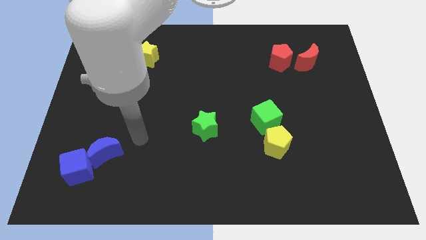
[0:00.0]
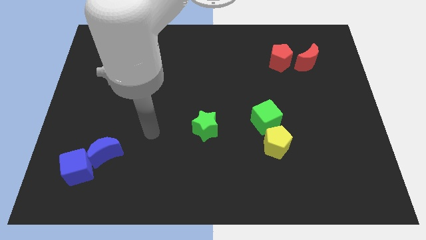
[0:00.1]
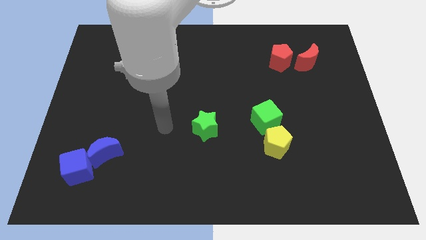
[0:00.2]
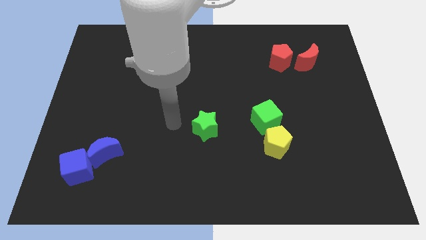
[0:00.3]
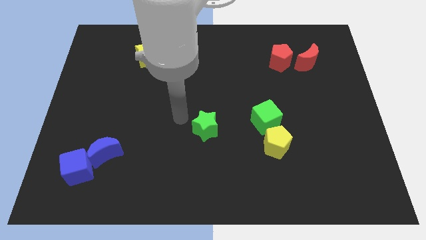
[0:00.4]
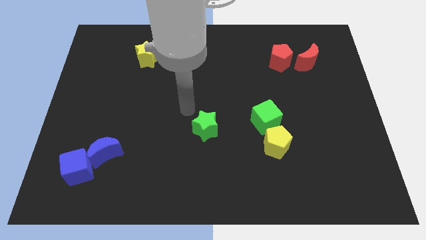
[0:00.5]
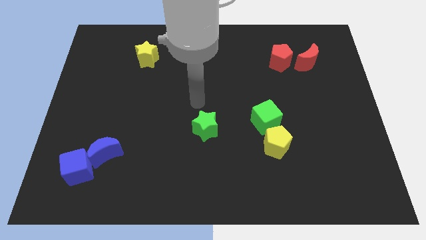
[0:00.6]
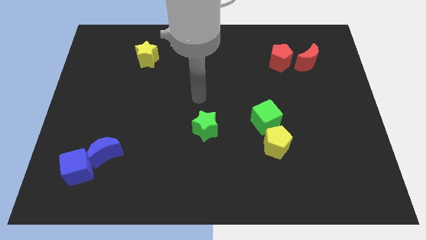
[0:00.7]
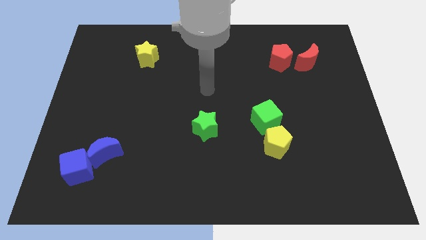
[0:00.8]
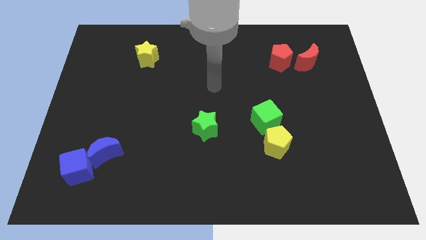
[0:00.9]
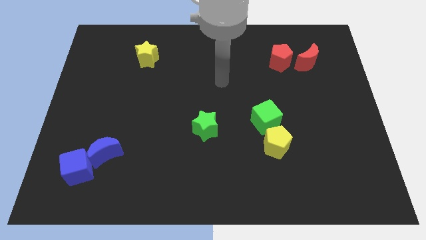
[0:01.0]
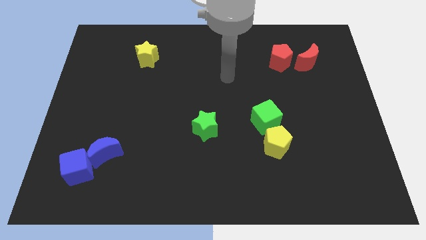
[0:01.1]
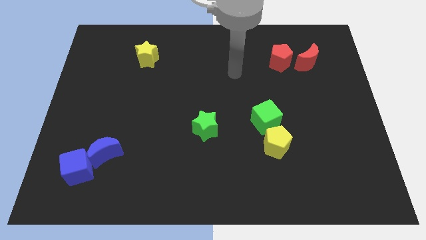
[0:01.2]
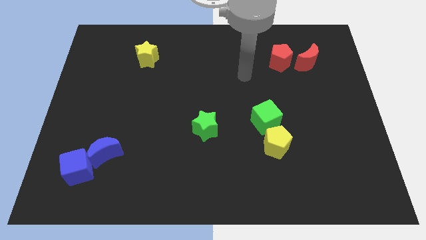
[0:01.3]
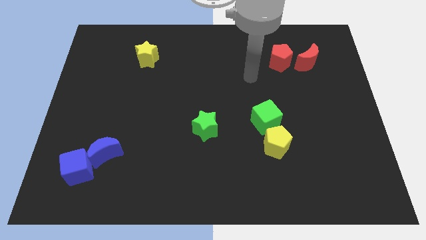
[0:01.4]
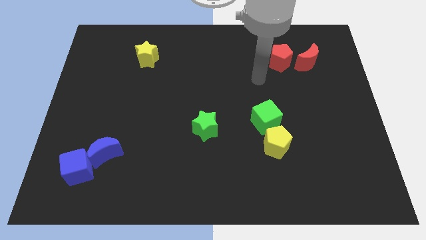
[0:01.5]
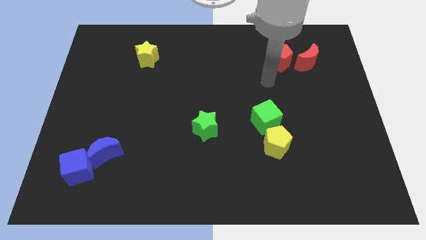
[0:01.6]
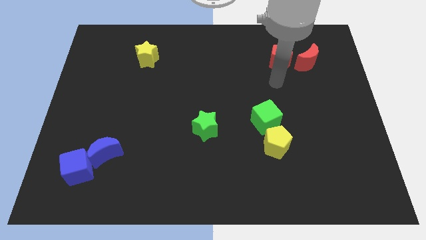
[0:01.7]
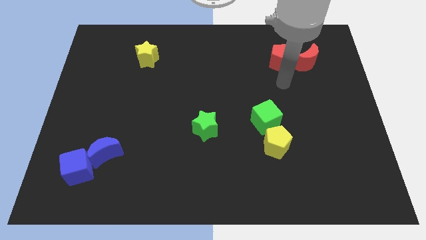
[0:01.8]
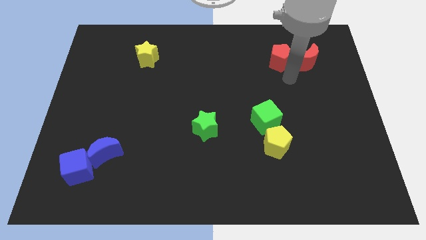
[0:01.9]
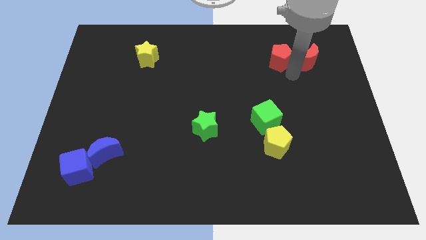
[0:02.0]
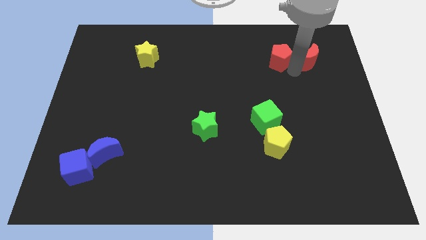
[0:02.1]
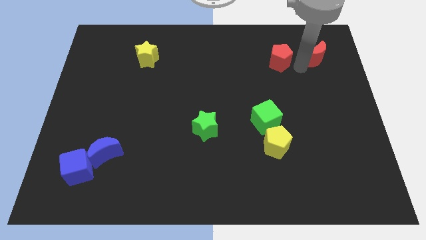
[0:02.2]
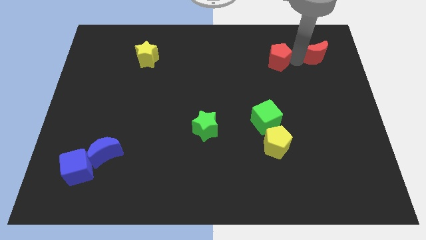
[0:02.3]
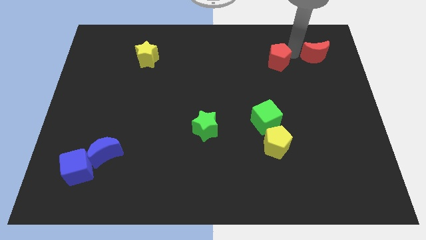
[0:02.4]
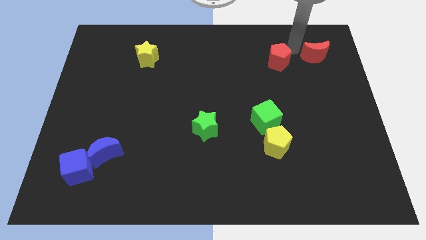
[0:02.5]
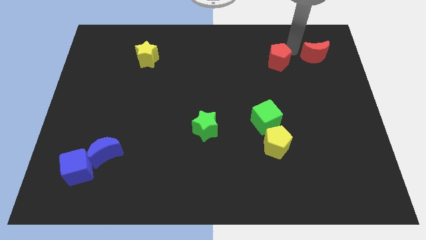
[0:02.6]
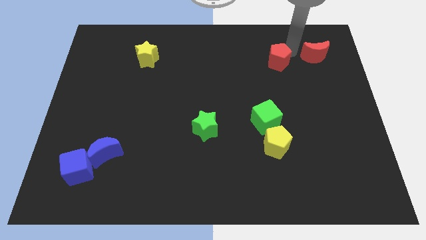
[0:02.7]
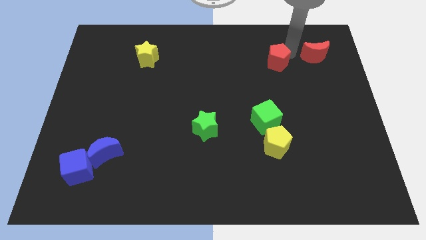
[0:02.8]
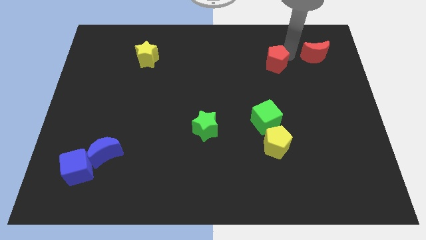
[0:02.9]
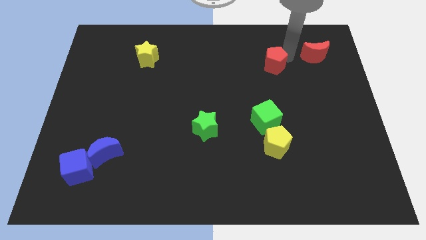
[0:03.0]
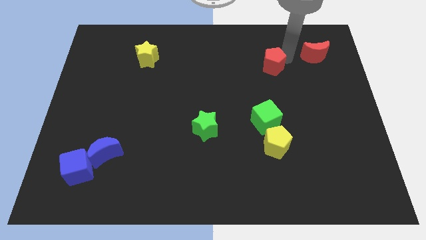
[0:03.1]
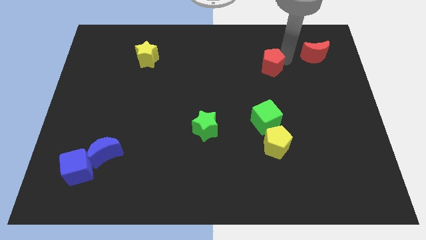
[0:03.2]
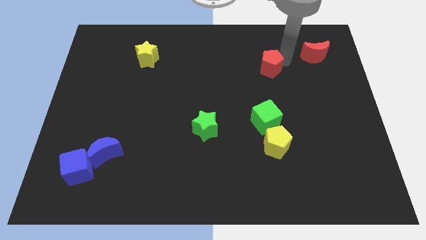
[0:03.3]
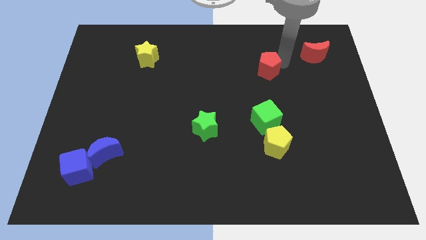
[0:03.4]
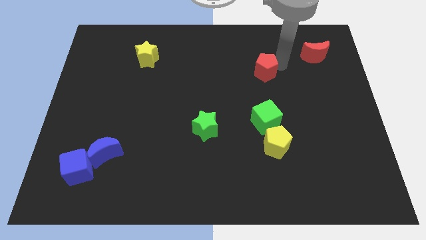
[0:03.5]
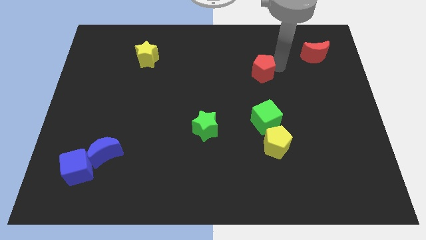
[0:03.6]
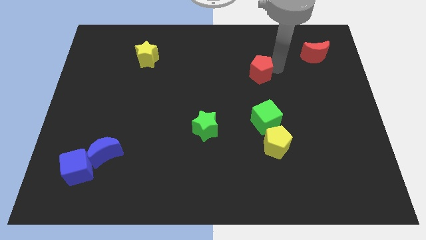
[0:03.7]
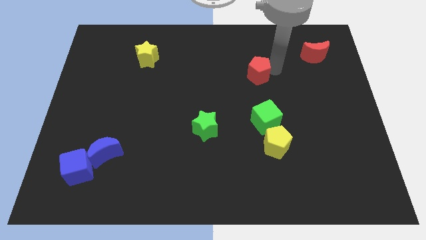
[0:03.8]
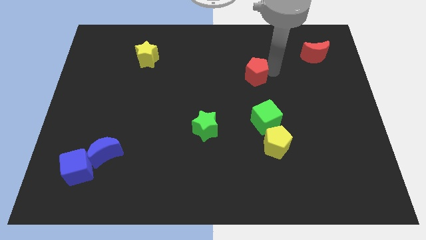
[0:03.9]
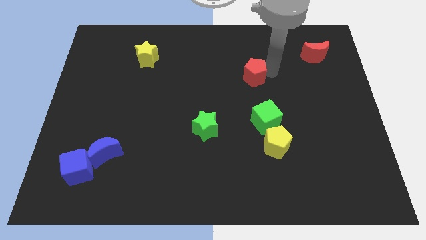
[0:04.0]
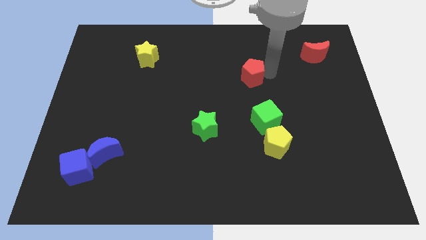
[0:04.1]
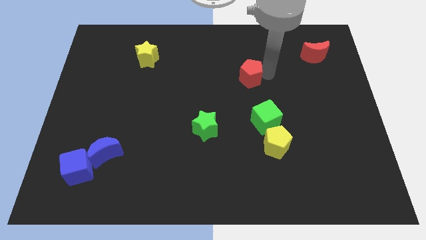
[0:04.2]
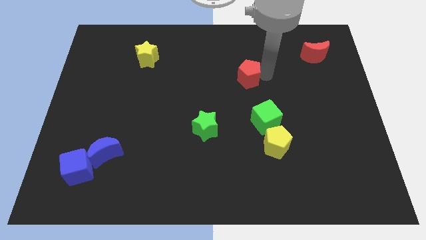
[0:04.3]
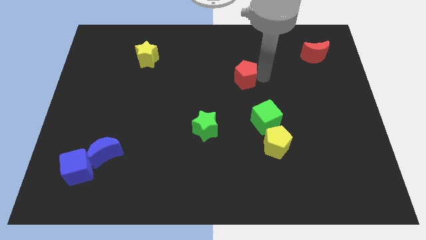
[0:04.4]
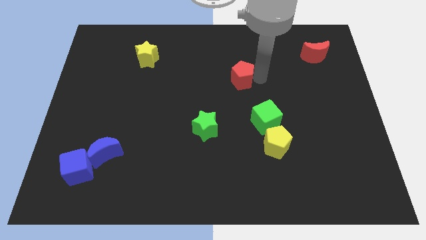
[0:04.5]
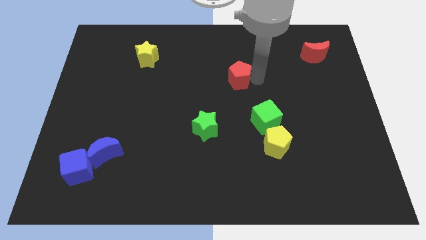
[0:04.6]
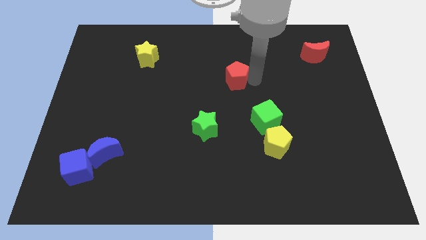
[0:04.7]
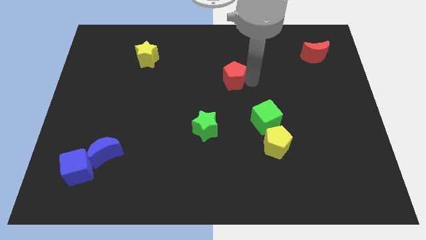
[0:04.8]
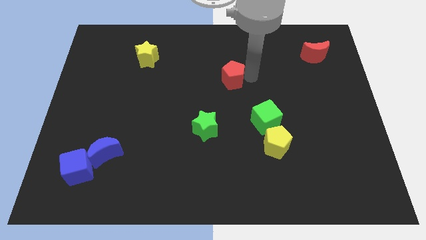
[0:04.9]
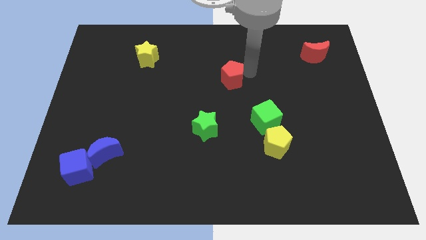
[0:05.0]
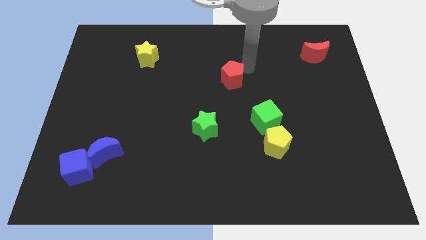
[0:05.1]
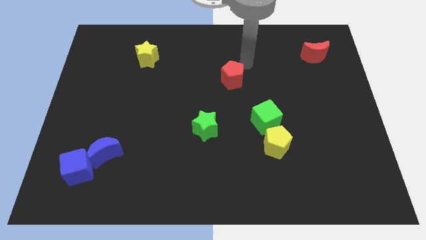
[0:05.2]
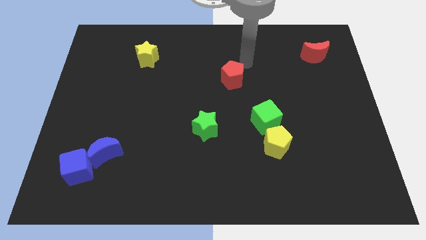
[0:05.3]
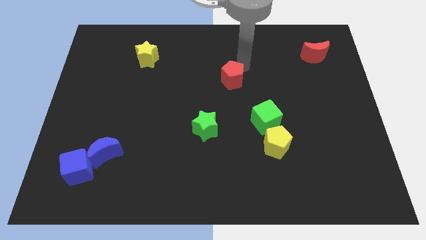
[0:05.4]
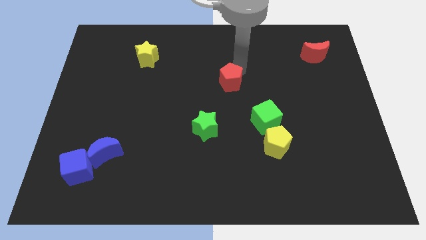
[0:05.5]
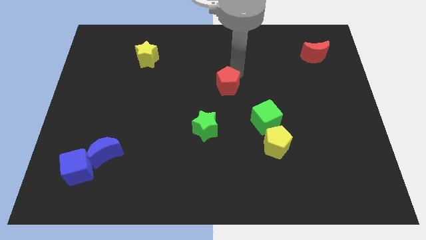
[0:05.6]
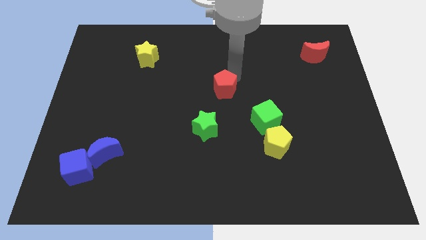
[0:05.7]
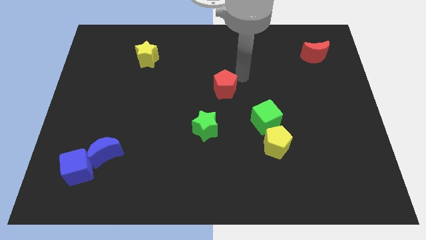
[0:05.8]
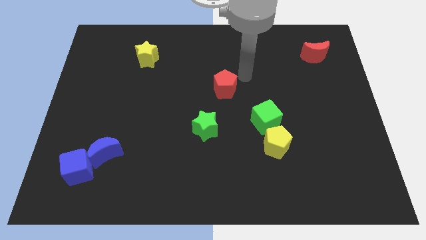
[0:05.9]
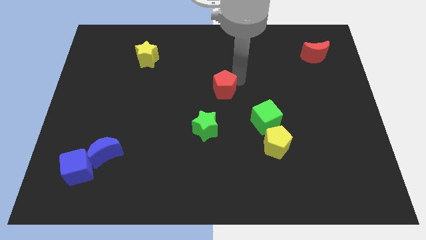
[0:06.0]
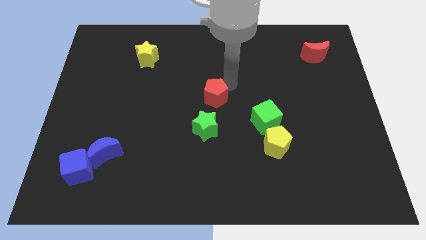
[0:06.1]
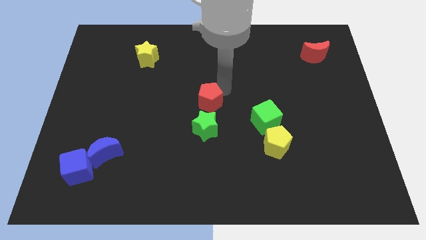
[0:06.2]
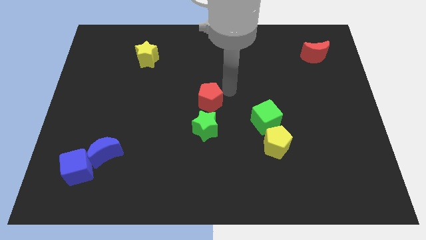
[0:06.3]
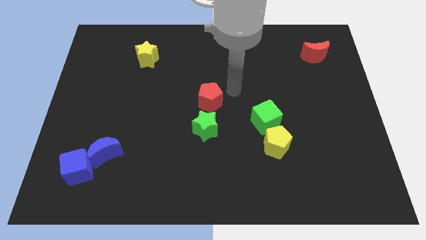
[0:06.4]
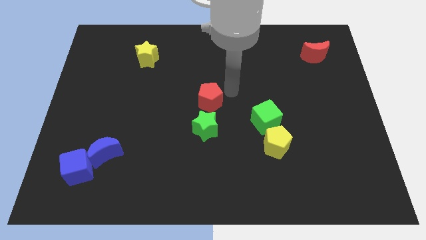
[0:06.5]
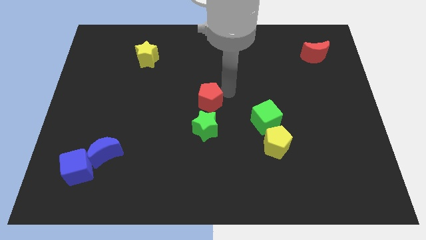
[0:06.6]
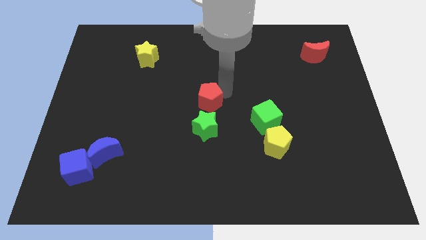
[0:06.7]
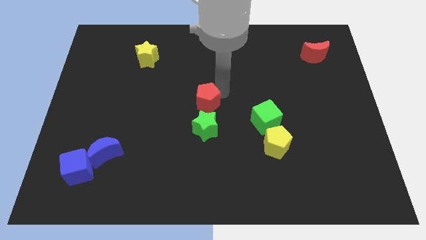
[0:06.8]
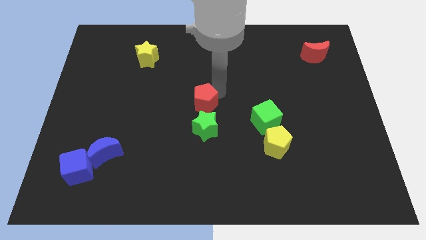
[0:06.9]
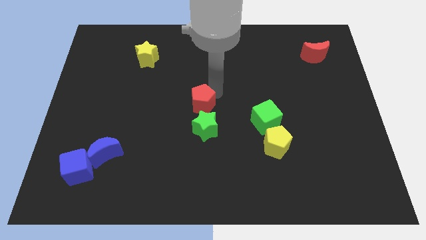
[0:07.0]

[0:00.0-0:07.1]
put the red pentagon diagonally up and to the left of the green star
